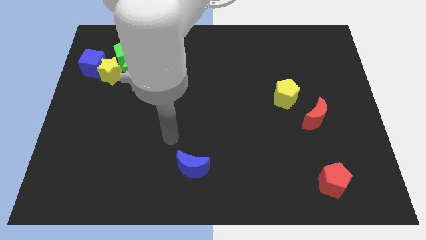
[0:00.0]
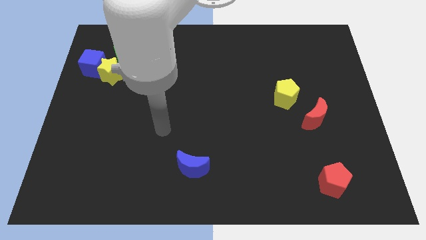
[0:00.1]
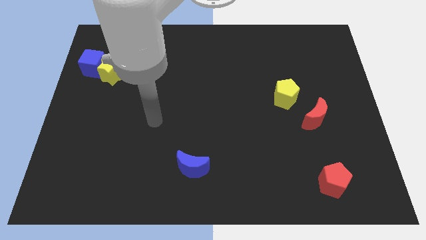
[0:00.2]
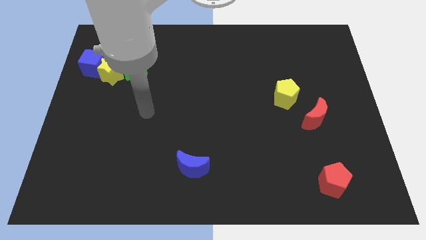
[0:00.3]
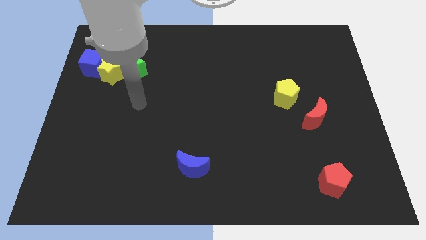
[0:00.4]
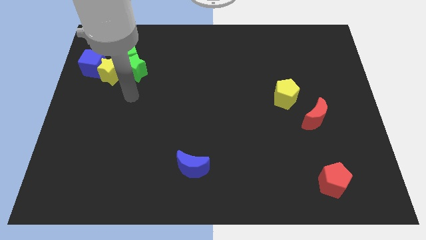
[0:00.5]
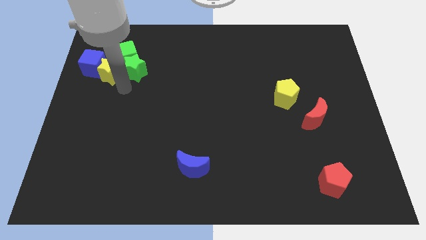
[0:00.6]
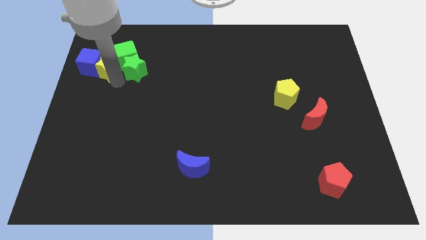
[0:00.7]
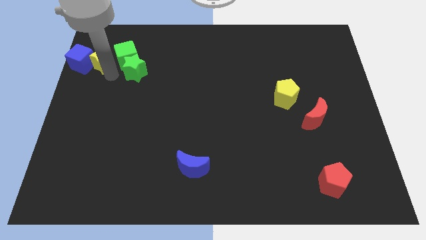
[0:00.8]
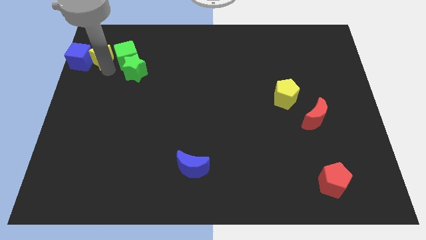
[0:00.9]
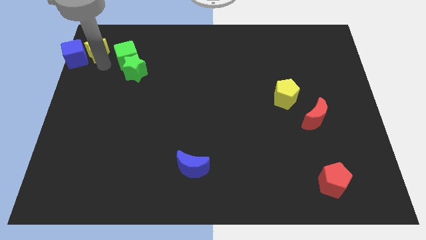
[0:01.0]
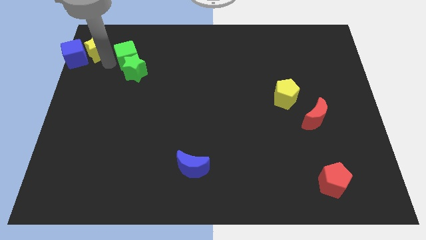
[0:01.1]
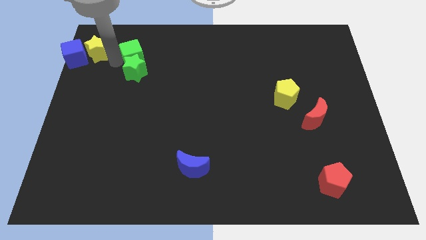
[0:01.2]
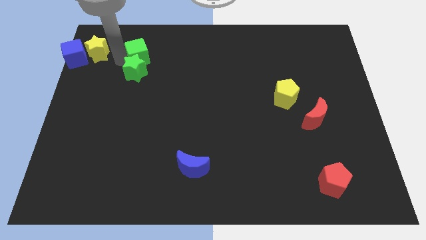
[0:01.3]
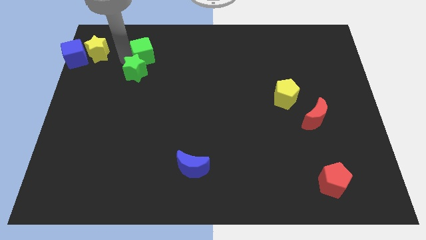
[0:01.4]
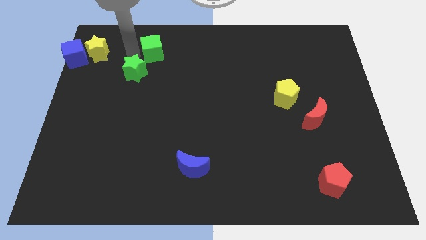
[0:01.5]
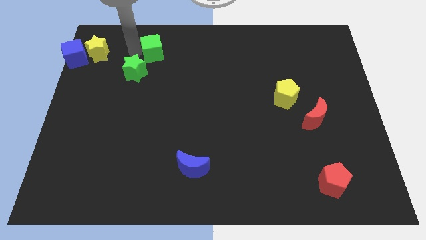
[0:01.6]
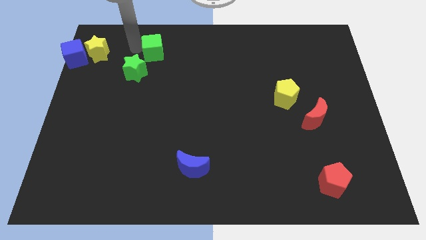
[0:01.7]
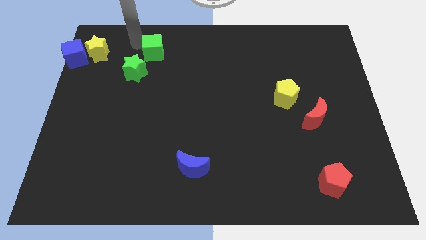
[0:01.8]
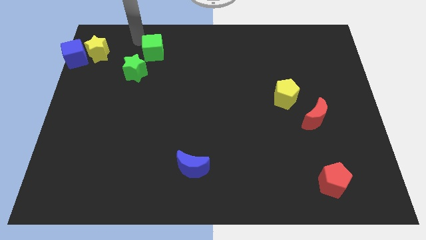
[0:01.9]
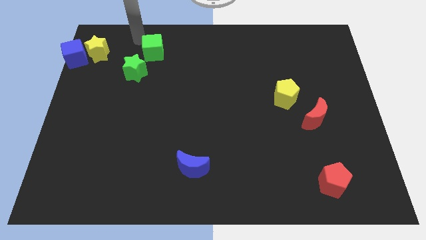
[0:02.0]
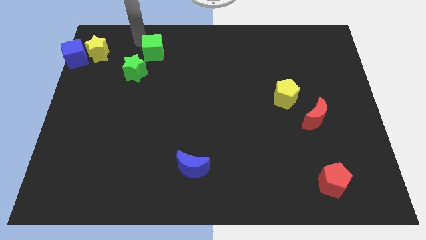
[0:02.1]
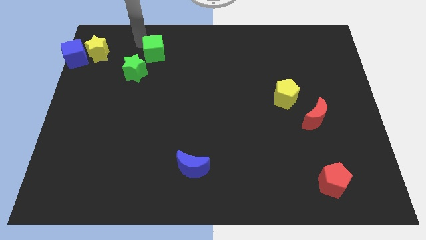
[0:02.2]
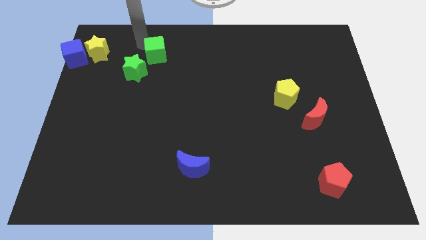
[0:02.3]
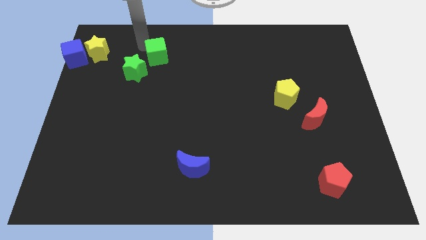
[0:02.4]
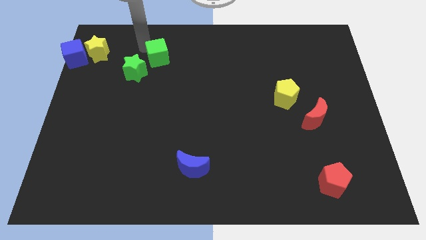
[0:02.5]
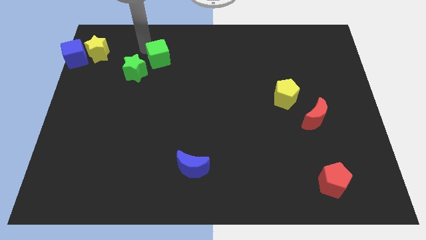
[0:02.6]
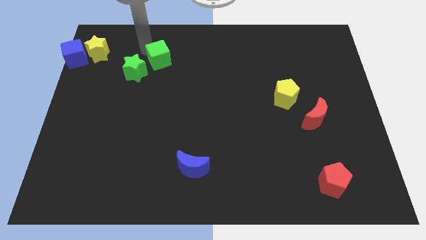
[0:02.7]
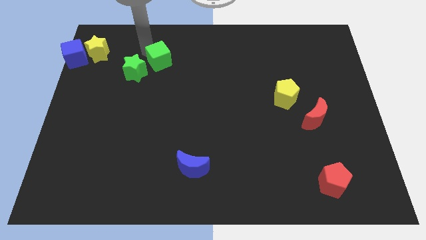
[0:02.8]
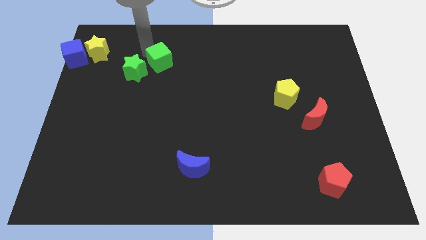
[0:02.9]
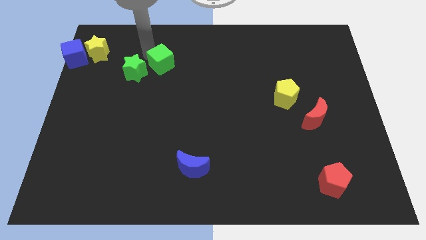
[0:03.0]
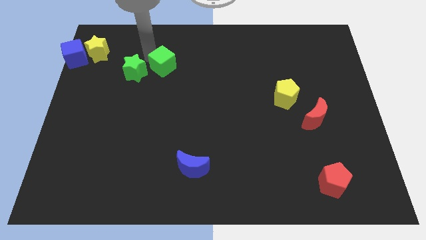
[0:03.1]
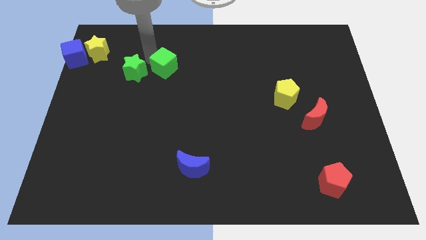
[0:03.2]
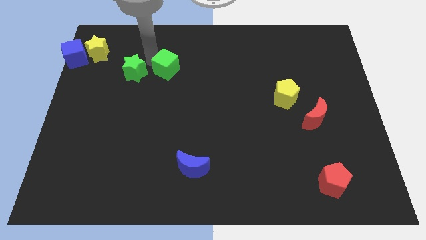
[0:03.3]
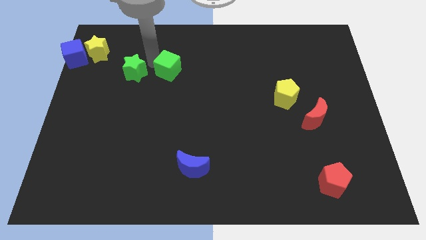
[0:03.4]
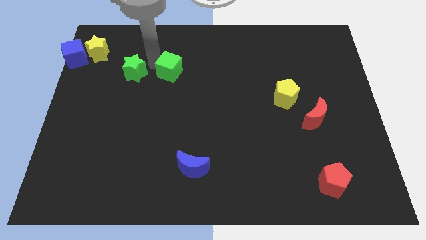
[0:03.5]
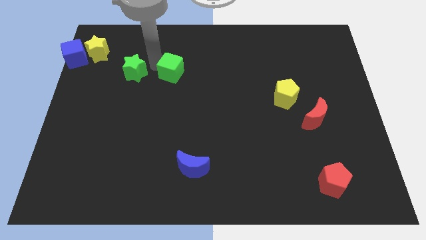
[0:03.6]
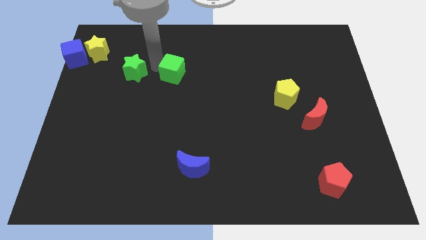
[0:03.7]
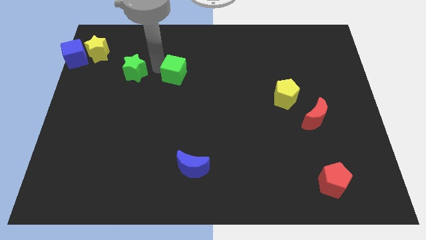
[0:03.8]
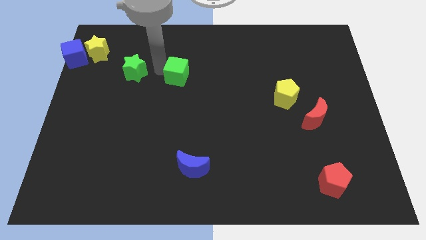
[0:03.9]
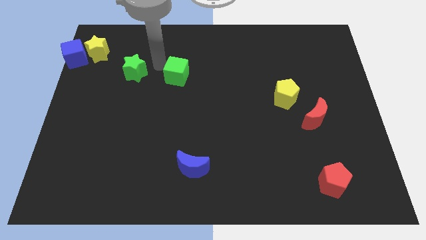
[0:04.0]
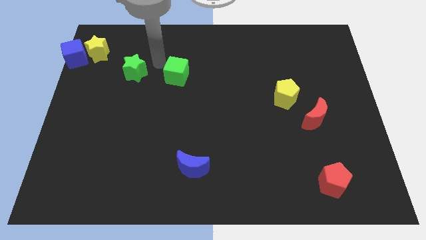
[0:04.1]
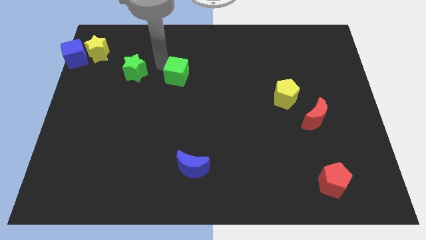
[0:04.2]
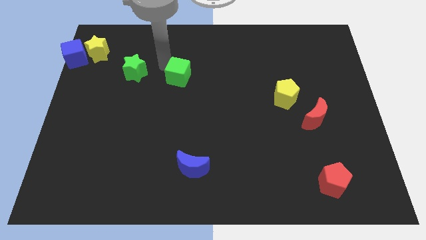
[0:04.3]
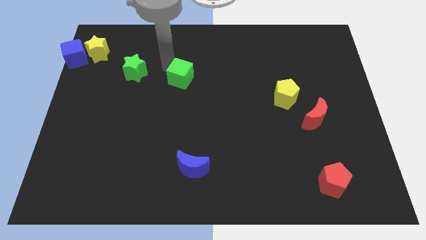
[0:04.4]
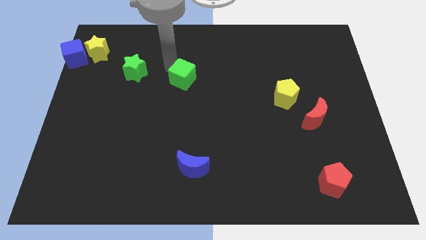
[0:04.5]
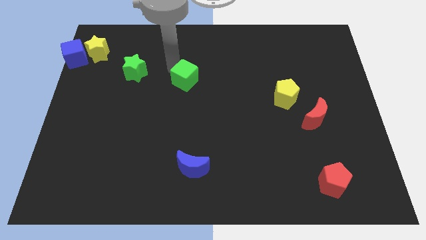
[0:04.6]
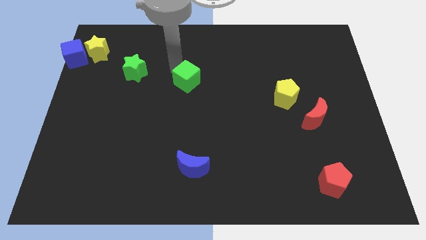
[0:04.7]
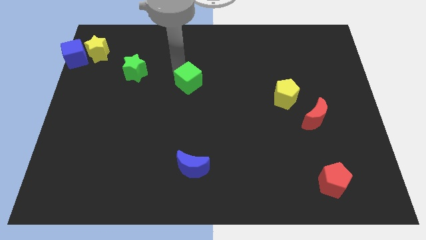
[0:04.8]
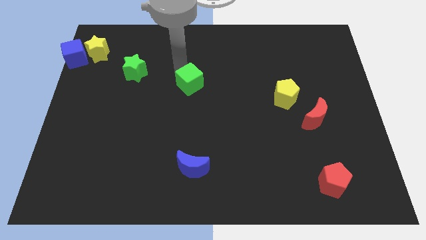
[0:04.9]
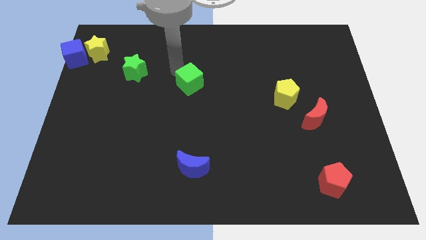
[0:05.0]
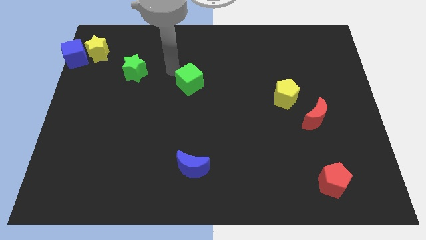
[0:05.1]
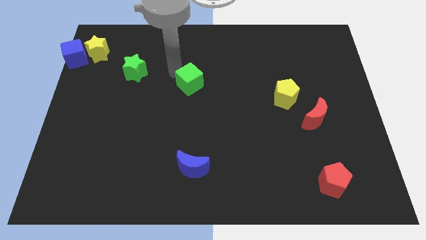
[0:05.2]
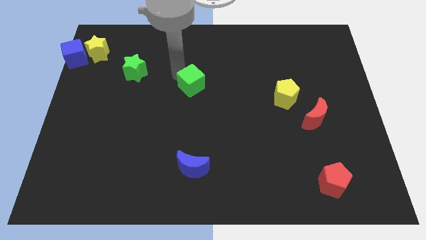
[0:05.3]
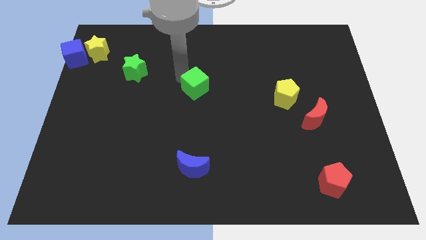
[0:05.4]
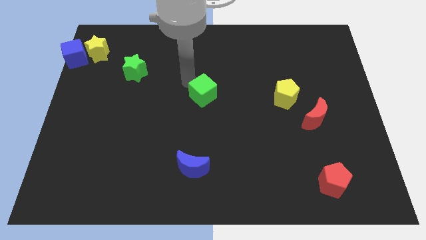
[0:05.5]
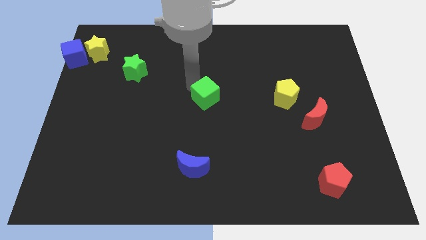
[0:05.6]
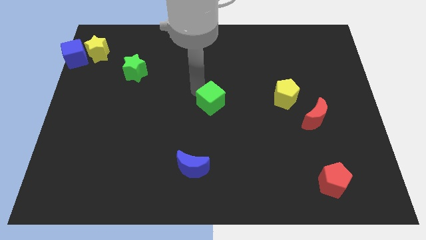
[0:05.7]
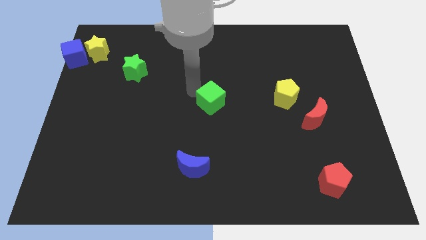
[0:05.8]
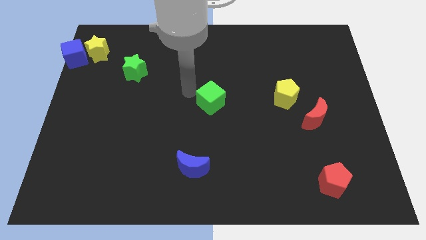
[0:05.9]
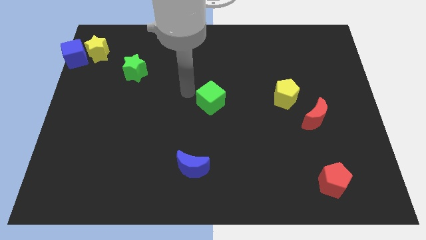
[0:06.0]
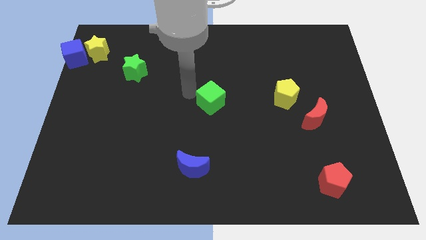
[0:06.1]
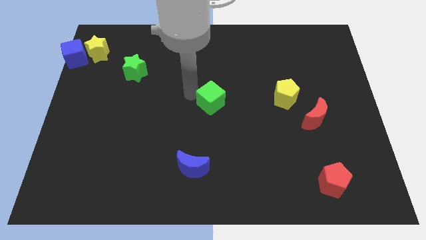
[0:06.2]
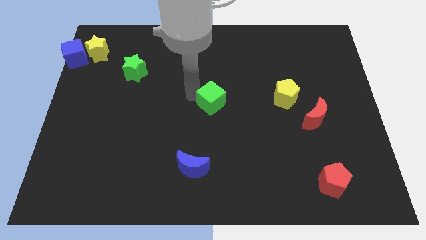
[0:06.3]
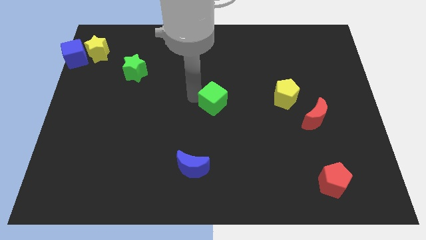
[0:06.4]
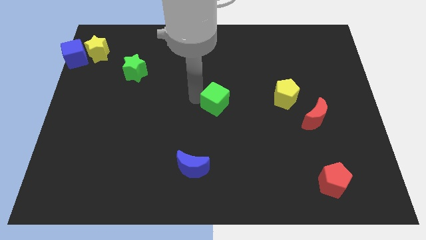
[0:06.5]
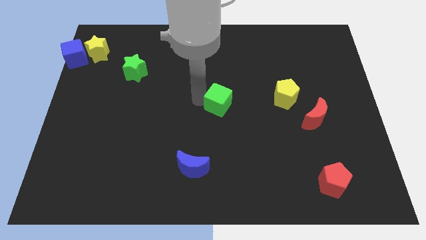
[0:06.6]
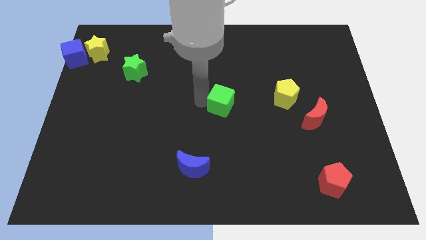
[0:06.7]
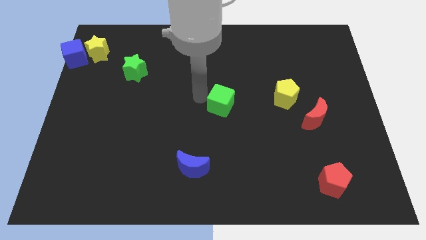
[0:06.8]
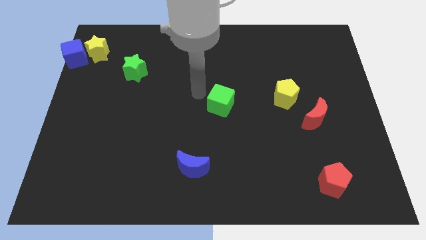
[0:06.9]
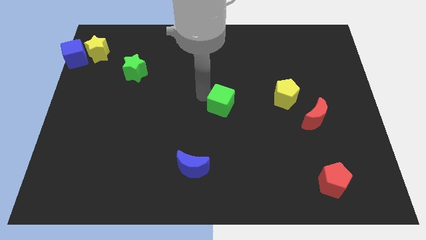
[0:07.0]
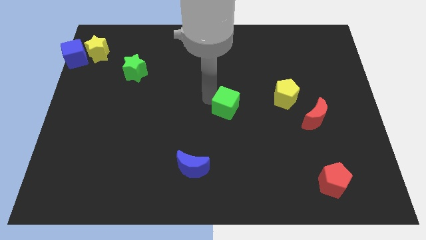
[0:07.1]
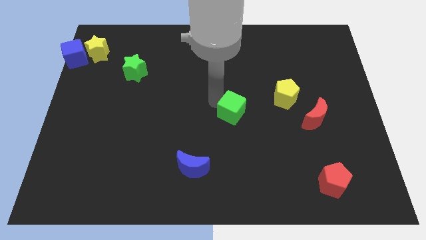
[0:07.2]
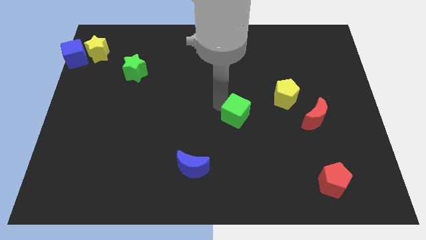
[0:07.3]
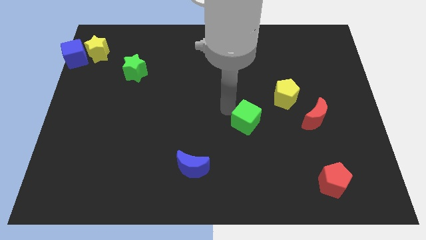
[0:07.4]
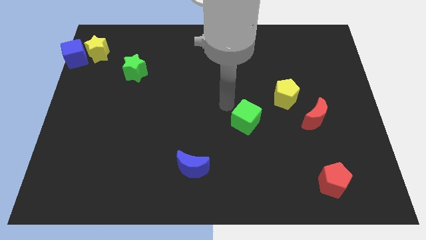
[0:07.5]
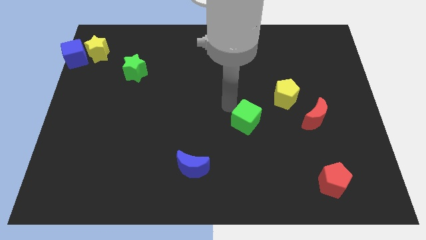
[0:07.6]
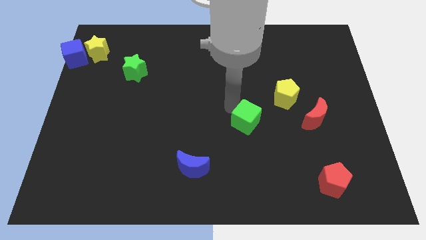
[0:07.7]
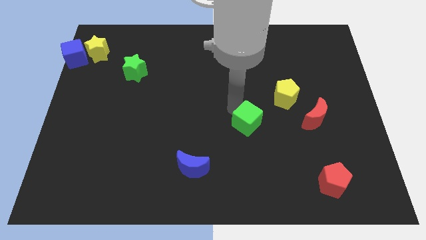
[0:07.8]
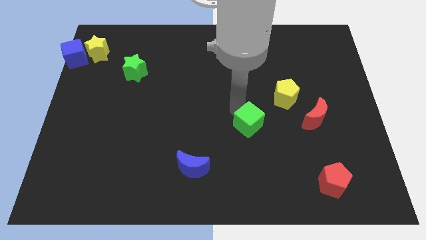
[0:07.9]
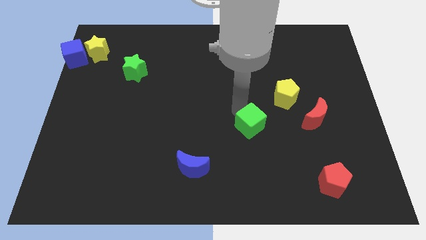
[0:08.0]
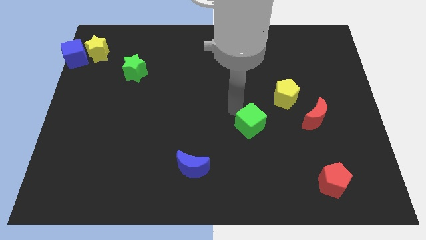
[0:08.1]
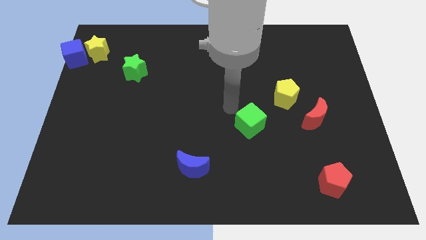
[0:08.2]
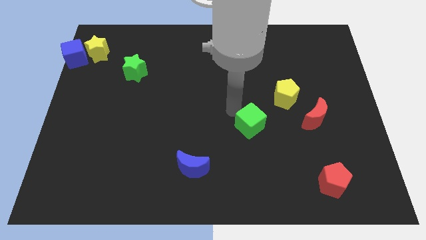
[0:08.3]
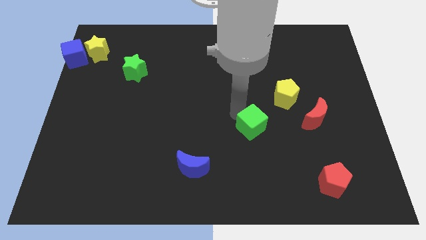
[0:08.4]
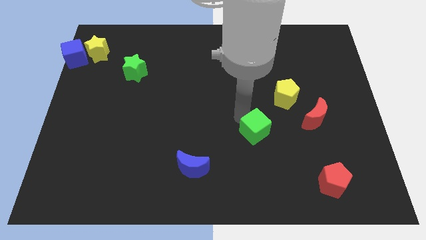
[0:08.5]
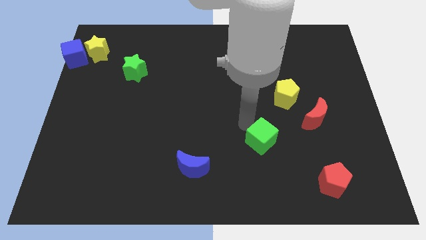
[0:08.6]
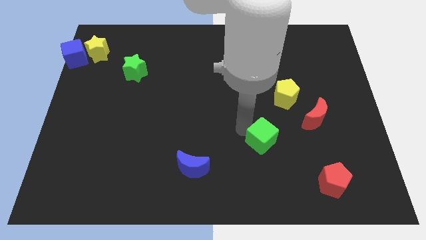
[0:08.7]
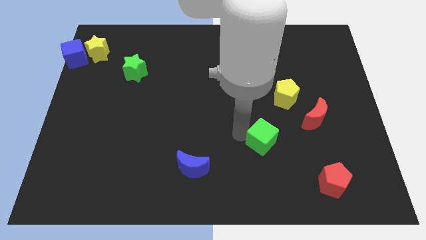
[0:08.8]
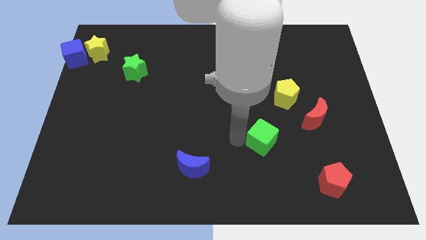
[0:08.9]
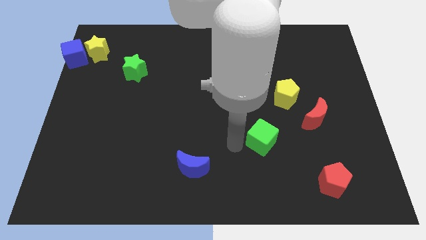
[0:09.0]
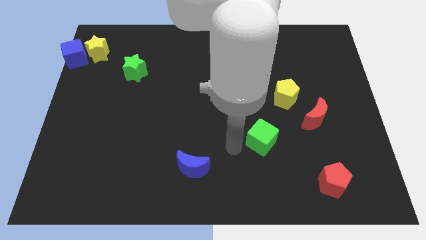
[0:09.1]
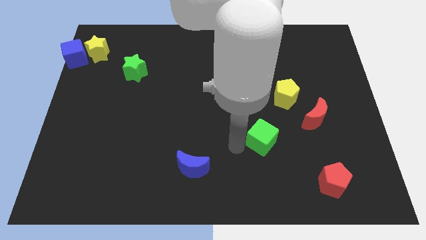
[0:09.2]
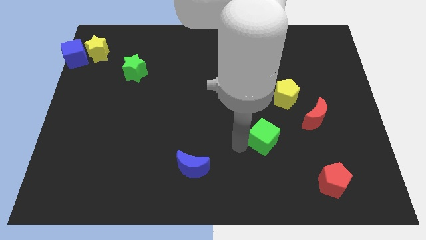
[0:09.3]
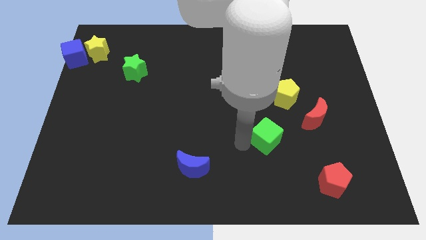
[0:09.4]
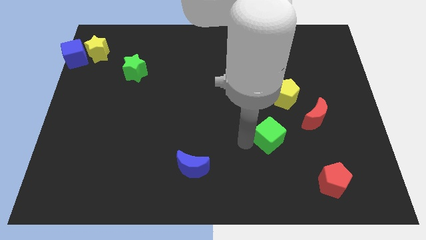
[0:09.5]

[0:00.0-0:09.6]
move the green cube to the bottom side of the yellow pentagon
